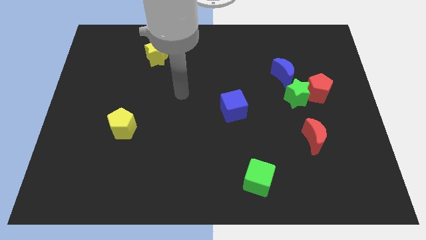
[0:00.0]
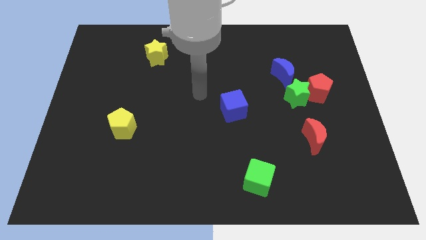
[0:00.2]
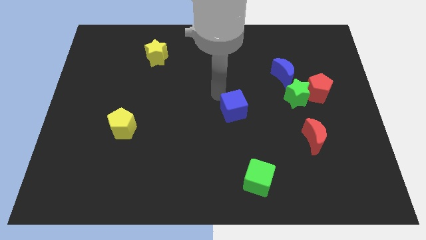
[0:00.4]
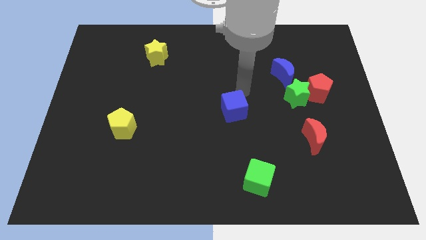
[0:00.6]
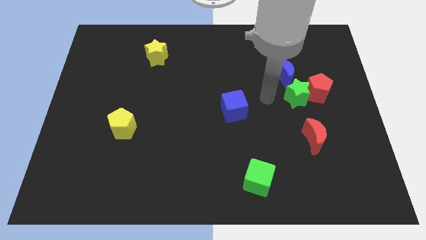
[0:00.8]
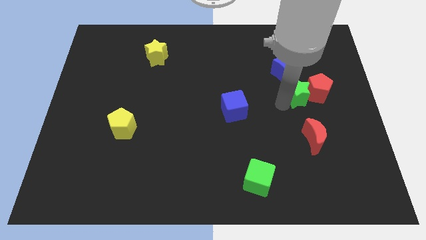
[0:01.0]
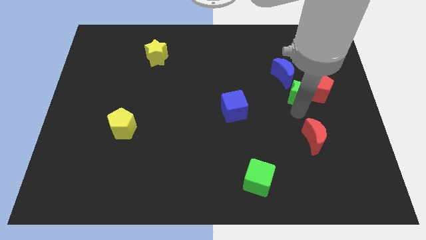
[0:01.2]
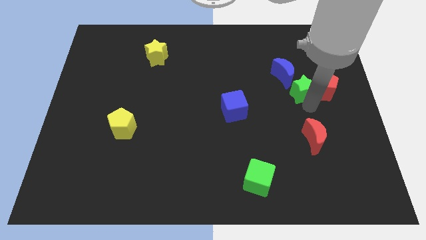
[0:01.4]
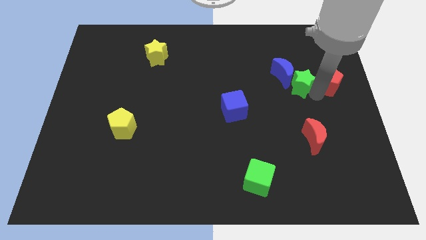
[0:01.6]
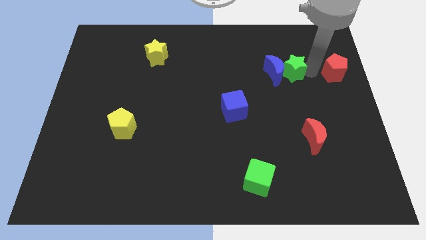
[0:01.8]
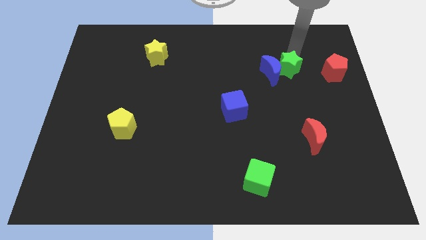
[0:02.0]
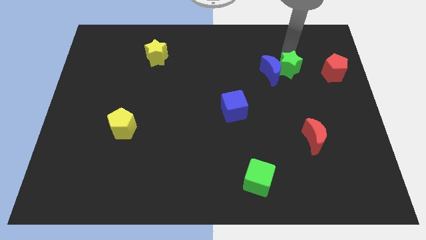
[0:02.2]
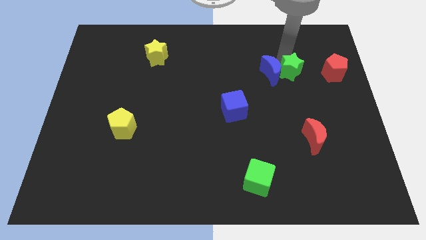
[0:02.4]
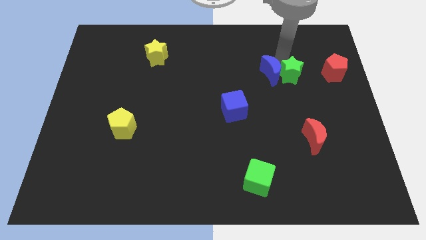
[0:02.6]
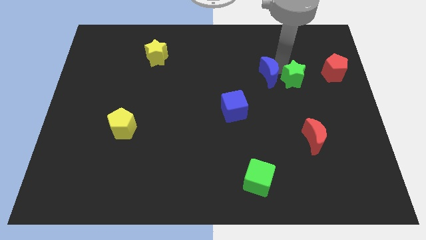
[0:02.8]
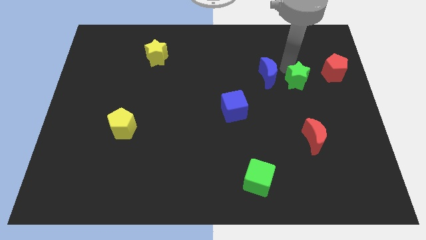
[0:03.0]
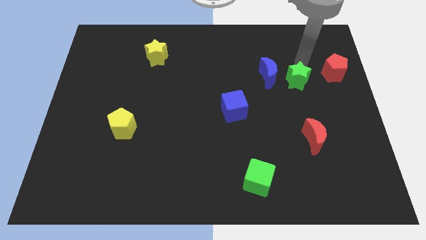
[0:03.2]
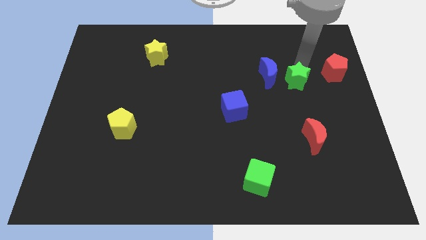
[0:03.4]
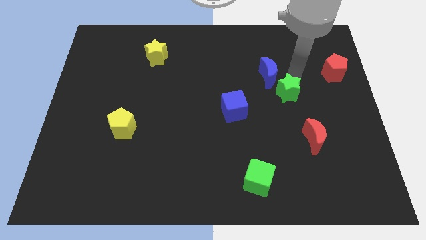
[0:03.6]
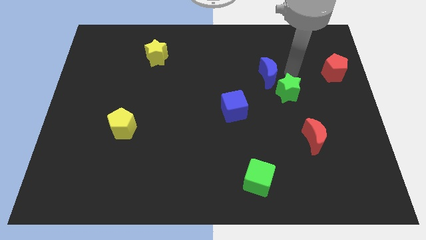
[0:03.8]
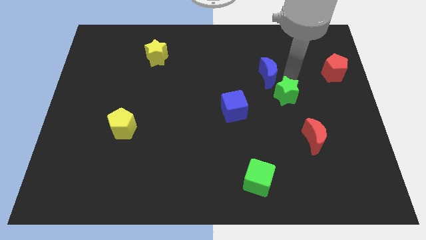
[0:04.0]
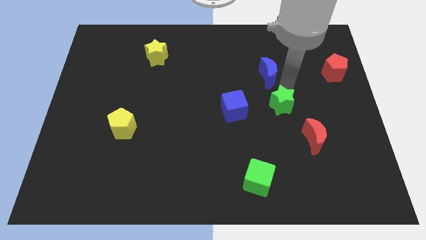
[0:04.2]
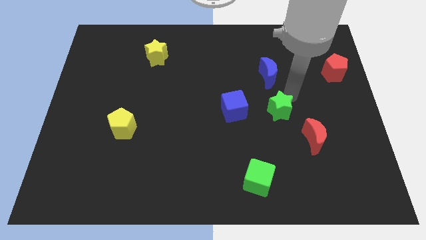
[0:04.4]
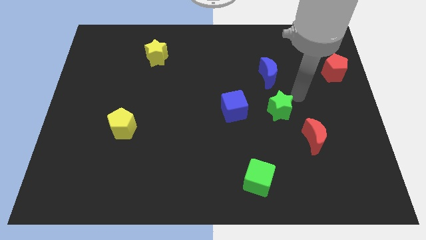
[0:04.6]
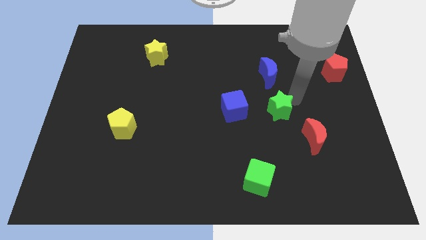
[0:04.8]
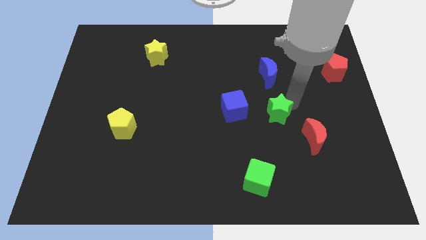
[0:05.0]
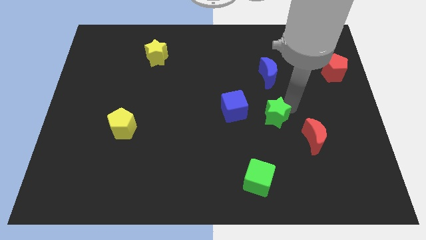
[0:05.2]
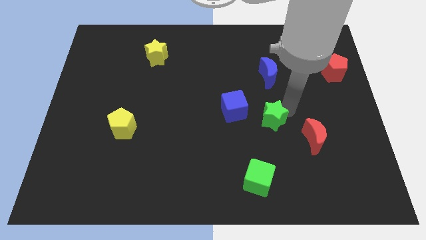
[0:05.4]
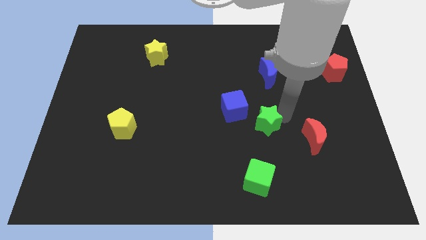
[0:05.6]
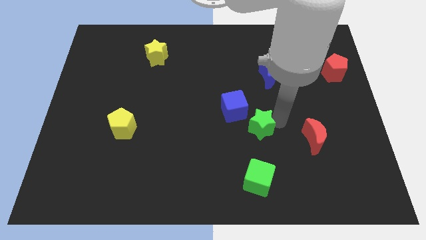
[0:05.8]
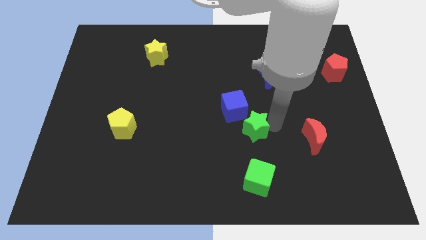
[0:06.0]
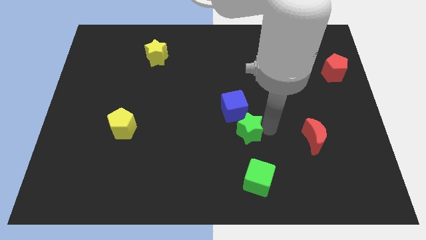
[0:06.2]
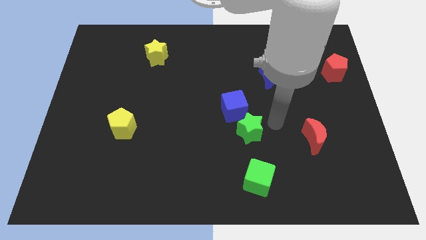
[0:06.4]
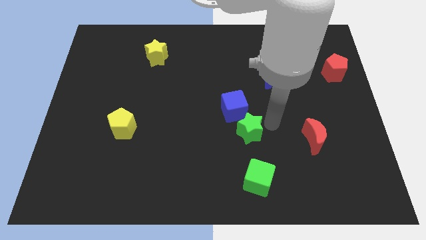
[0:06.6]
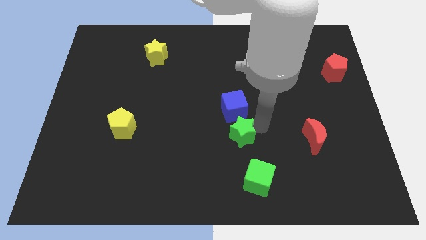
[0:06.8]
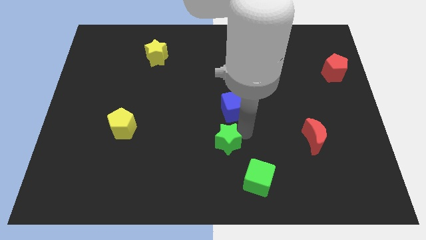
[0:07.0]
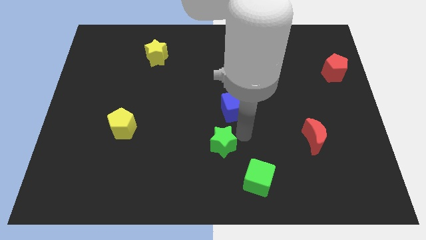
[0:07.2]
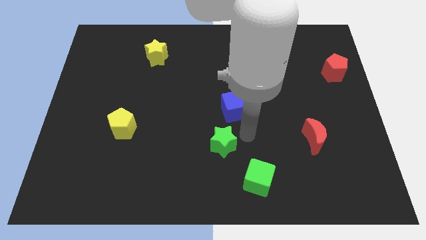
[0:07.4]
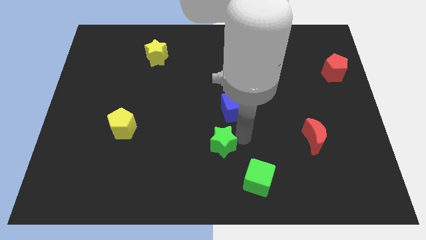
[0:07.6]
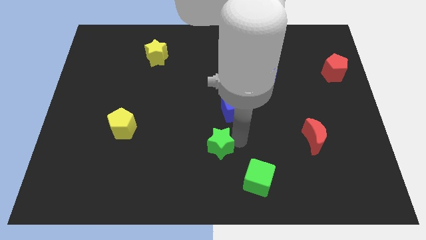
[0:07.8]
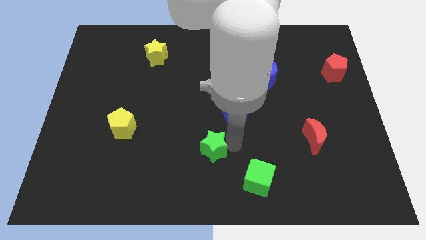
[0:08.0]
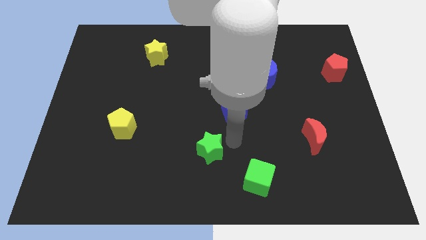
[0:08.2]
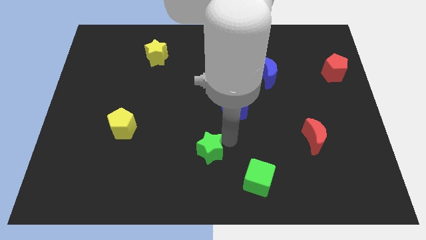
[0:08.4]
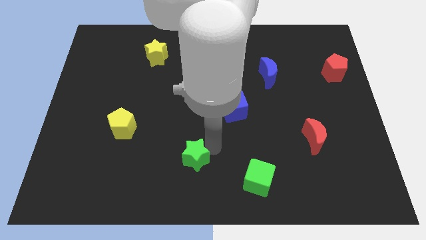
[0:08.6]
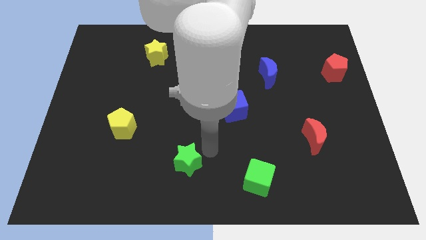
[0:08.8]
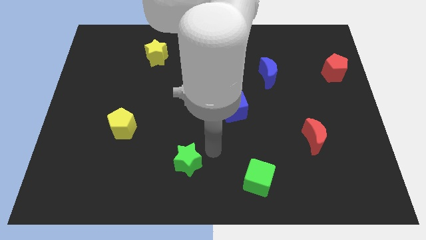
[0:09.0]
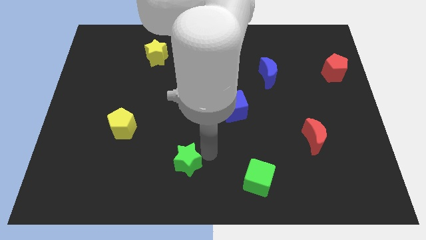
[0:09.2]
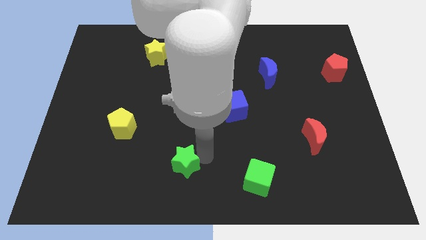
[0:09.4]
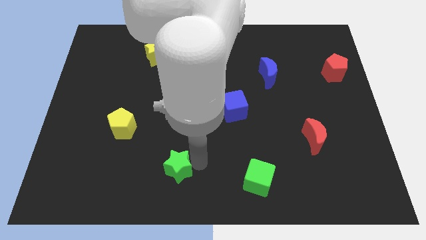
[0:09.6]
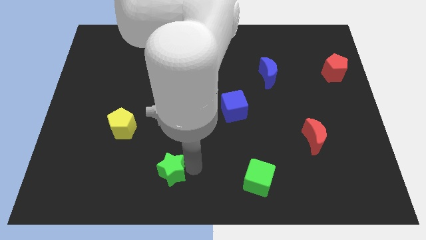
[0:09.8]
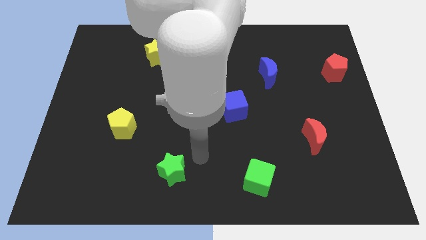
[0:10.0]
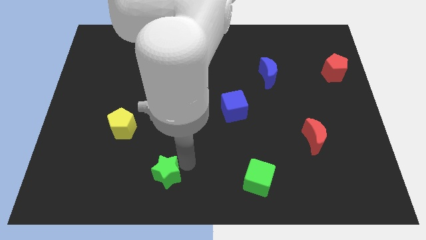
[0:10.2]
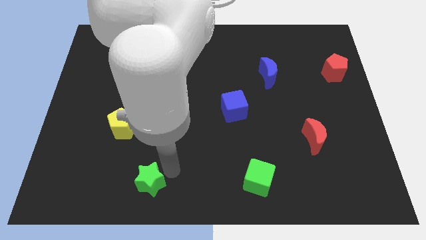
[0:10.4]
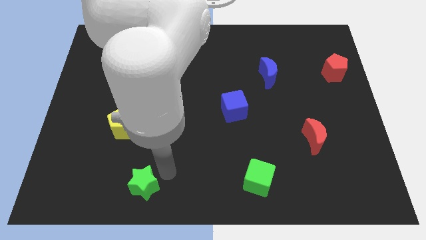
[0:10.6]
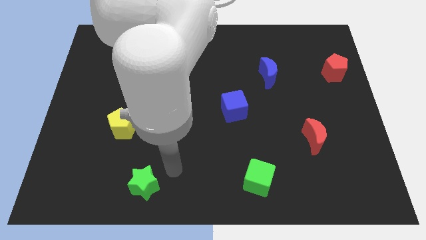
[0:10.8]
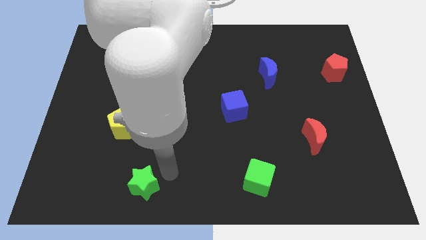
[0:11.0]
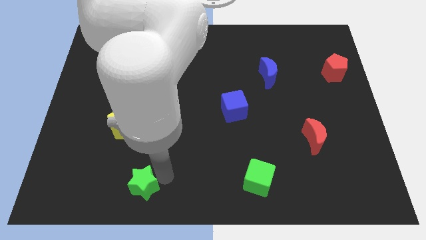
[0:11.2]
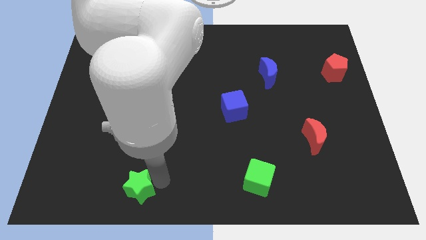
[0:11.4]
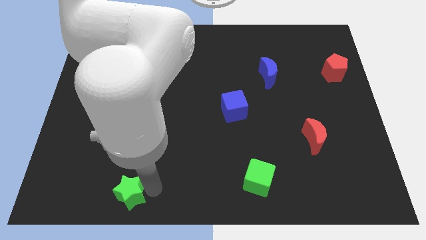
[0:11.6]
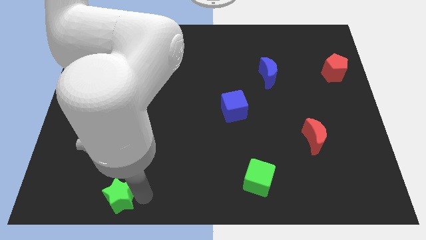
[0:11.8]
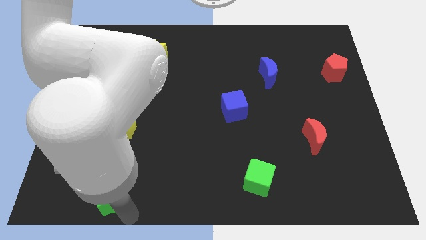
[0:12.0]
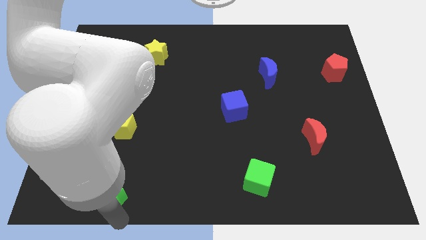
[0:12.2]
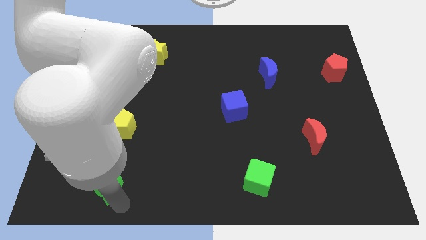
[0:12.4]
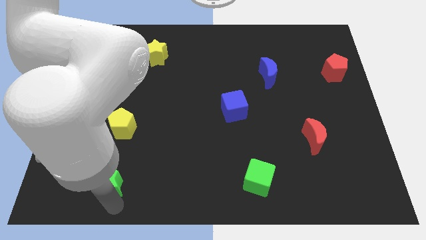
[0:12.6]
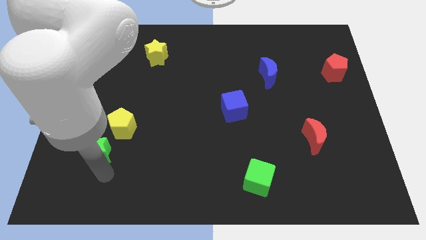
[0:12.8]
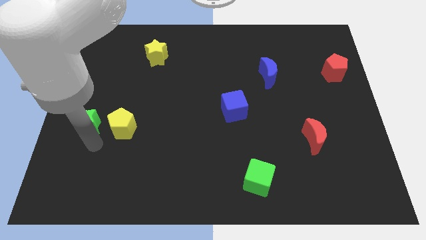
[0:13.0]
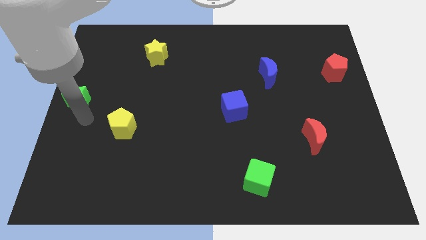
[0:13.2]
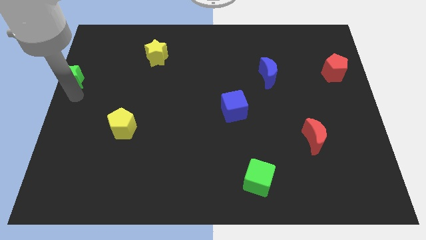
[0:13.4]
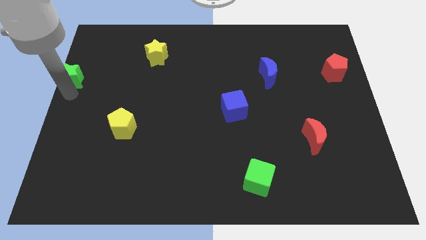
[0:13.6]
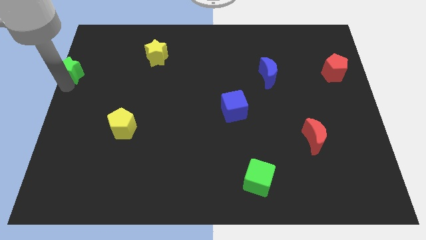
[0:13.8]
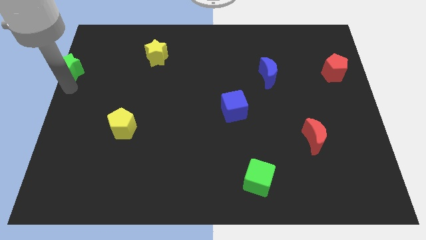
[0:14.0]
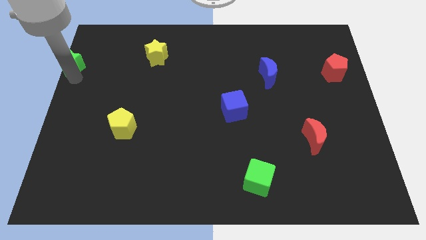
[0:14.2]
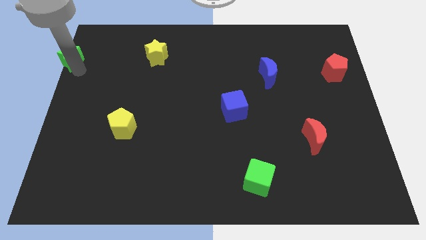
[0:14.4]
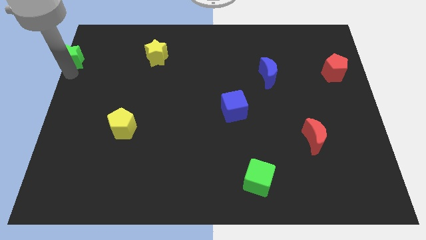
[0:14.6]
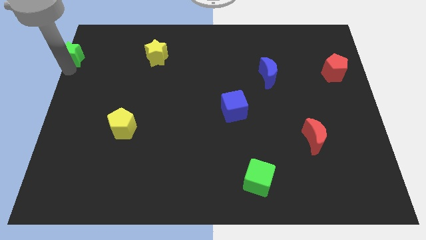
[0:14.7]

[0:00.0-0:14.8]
slide the green star to the top left of the board
